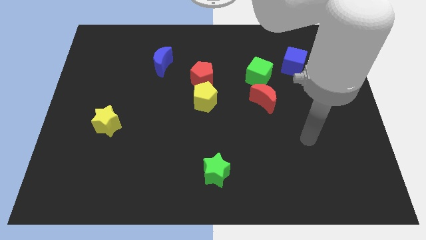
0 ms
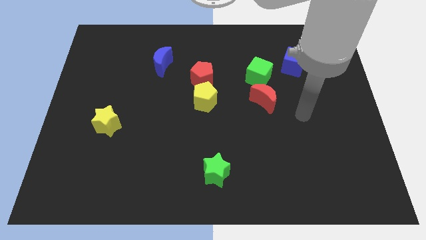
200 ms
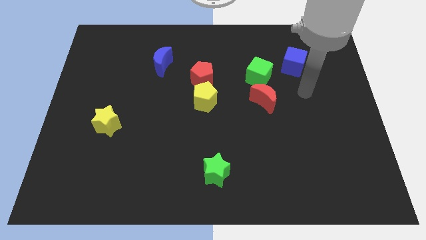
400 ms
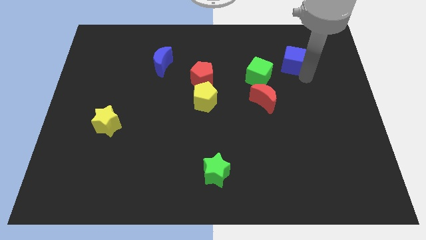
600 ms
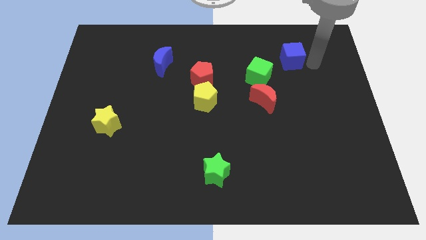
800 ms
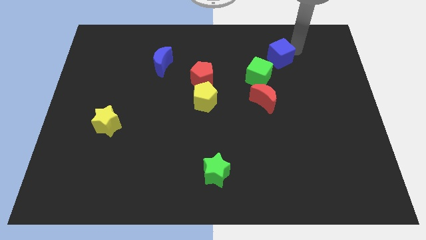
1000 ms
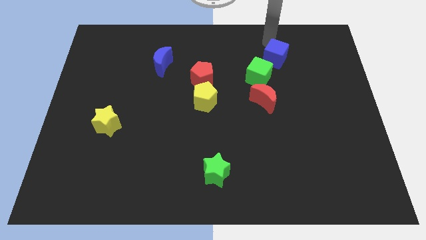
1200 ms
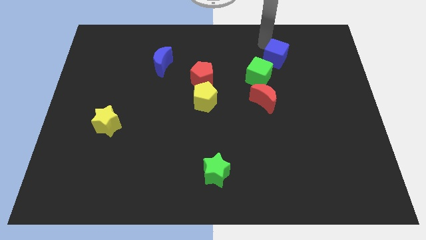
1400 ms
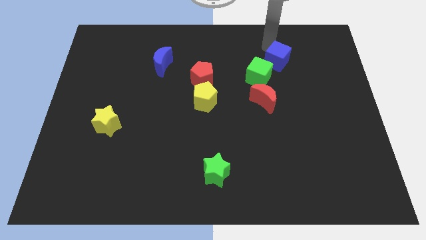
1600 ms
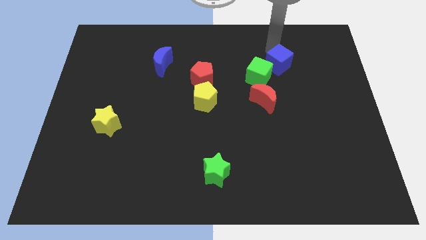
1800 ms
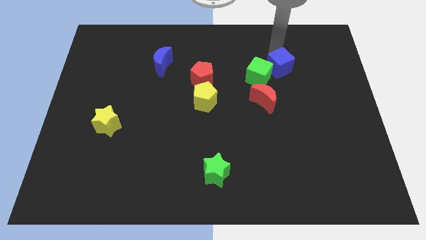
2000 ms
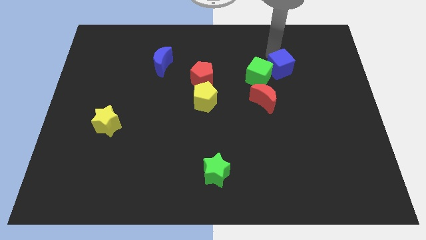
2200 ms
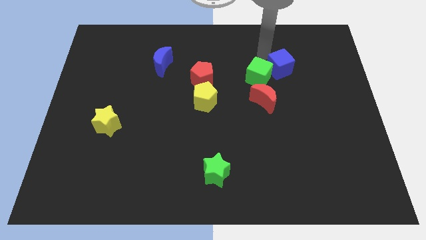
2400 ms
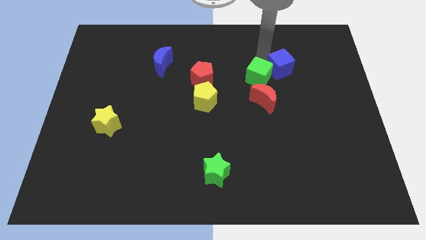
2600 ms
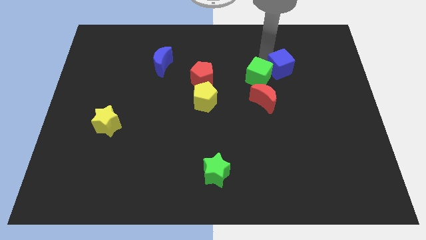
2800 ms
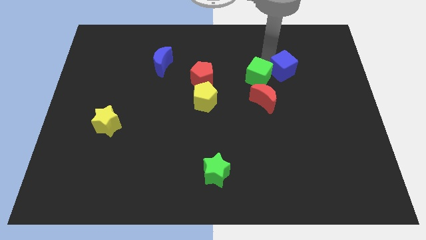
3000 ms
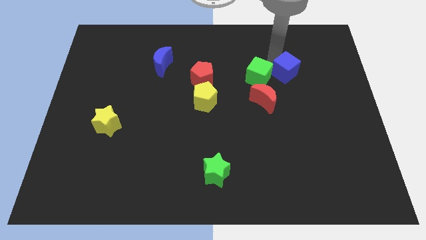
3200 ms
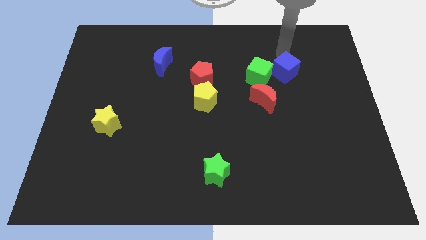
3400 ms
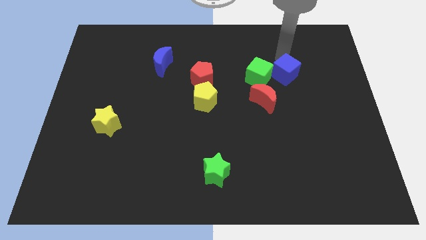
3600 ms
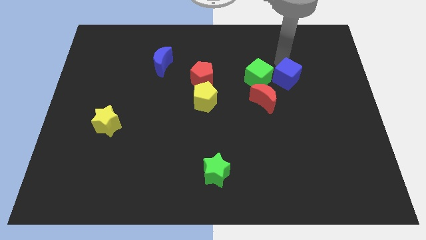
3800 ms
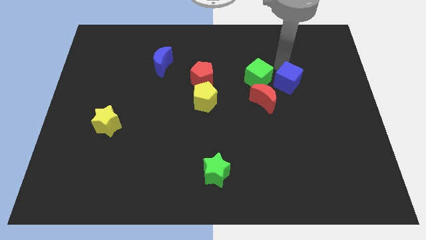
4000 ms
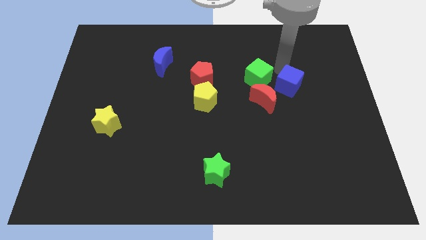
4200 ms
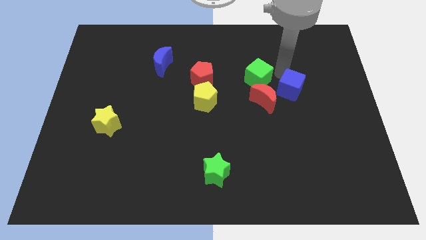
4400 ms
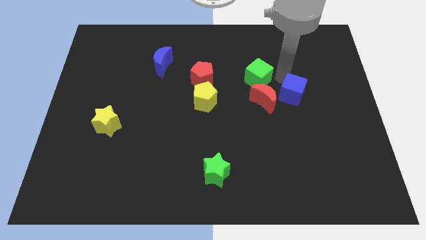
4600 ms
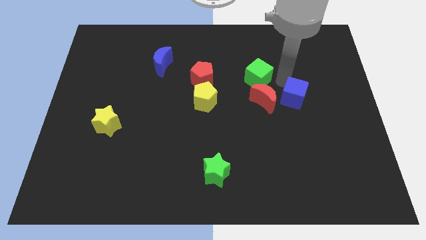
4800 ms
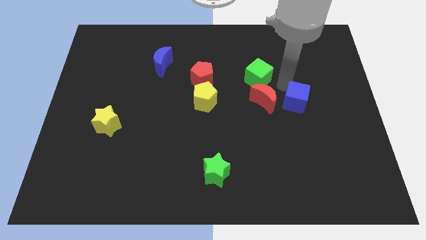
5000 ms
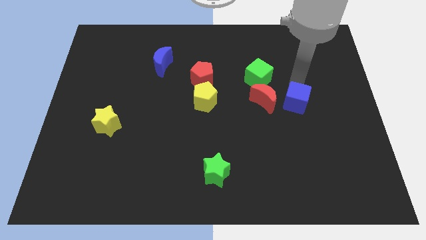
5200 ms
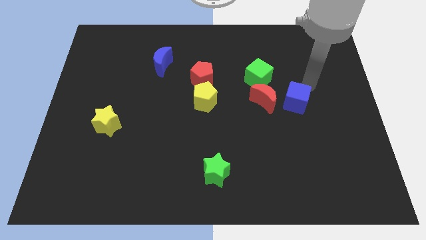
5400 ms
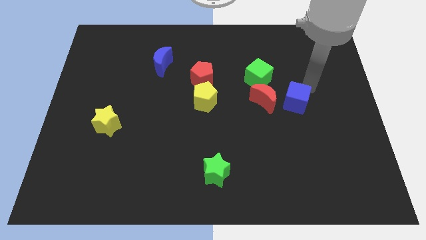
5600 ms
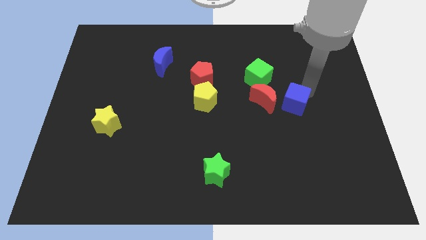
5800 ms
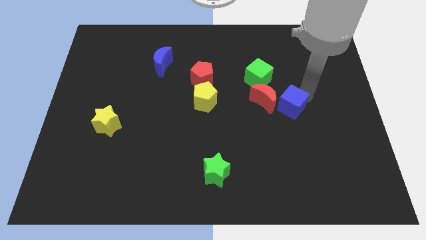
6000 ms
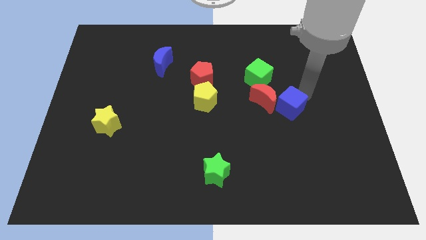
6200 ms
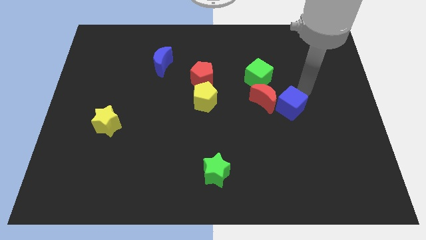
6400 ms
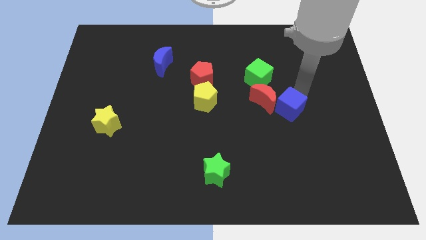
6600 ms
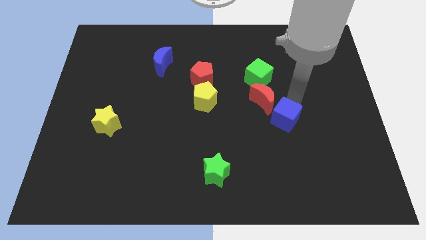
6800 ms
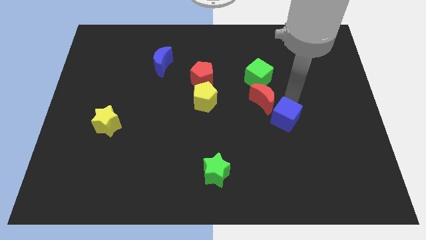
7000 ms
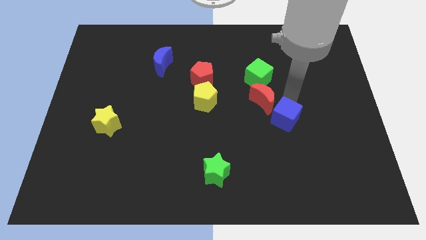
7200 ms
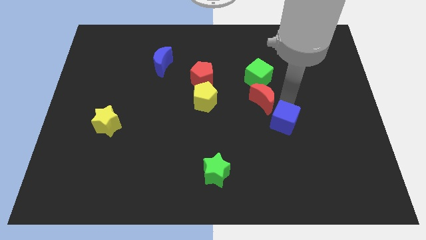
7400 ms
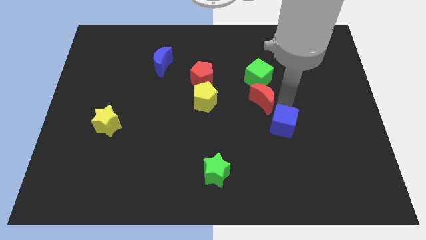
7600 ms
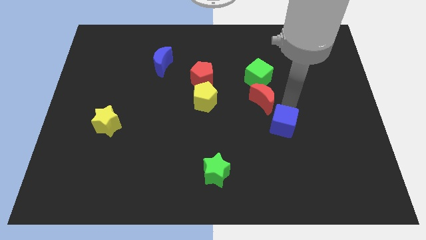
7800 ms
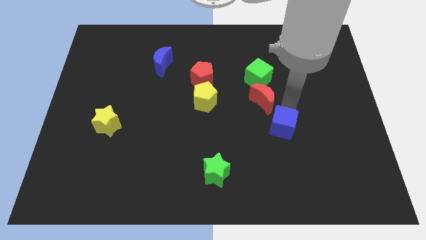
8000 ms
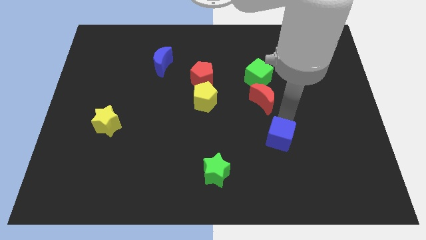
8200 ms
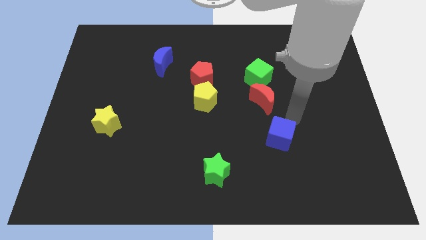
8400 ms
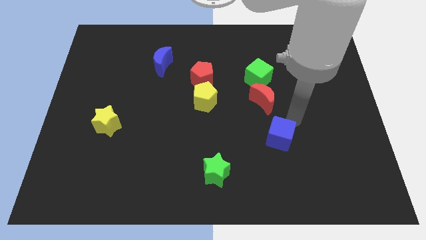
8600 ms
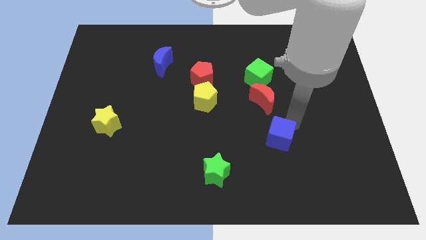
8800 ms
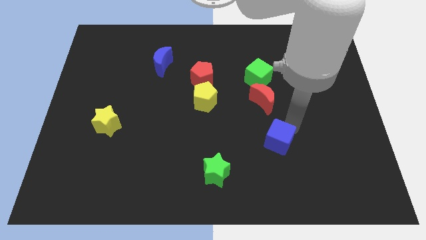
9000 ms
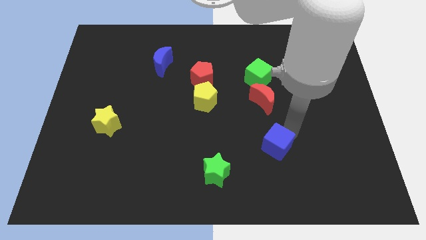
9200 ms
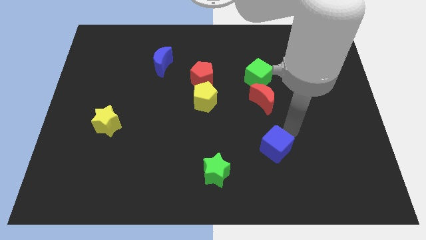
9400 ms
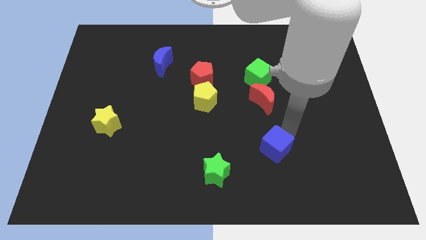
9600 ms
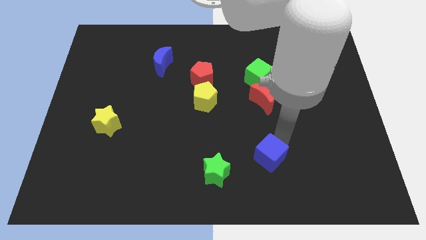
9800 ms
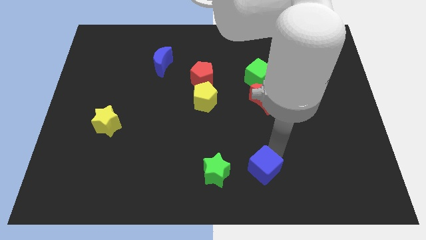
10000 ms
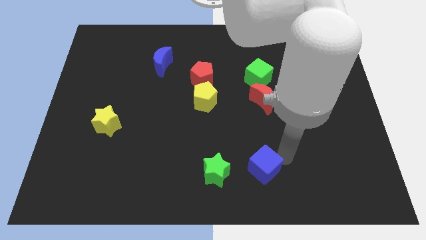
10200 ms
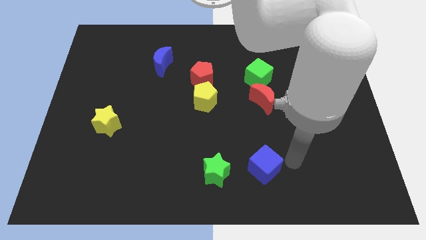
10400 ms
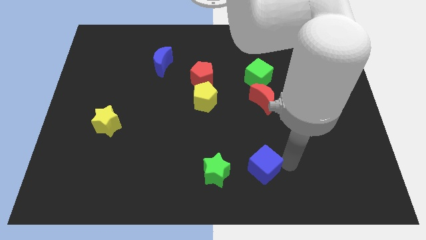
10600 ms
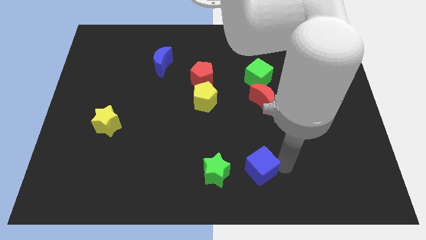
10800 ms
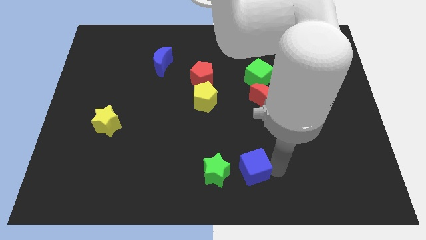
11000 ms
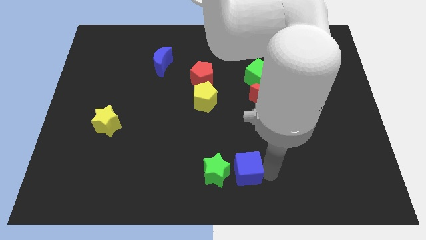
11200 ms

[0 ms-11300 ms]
push the blue cube close to the green star
